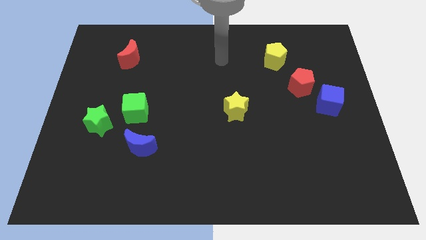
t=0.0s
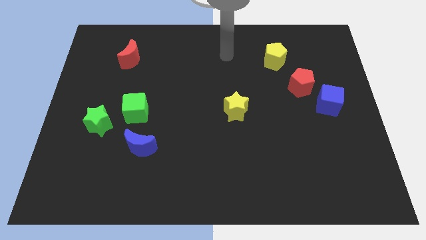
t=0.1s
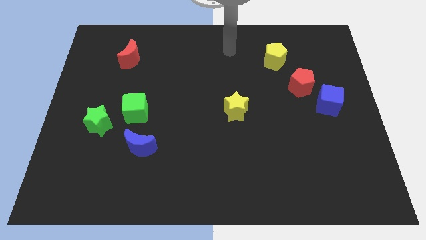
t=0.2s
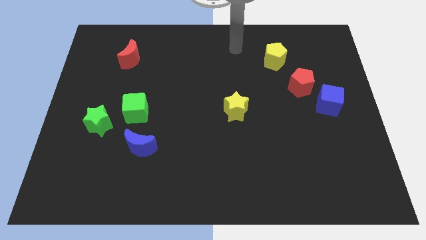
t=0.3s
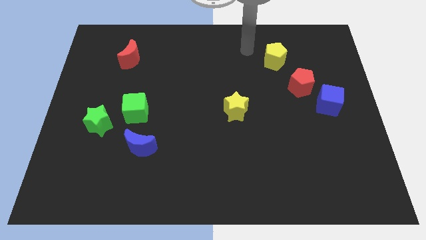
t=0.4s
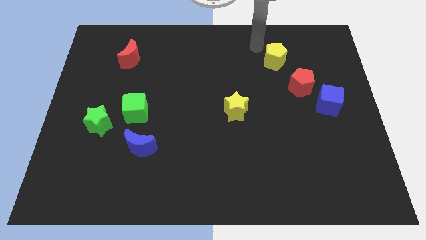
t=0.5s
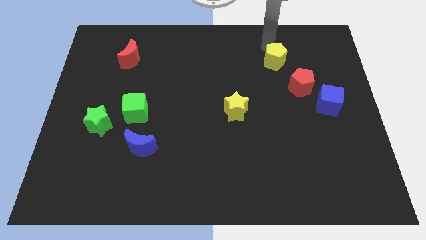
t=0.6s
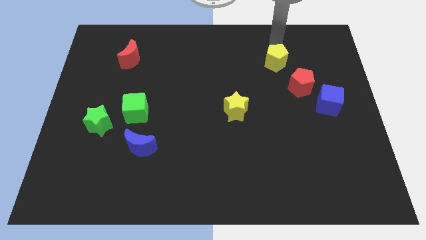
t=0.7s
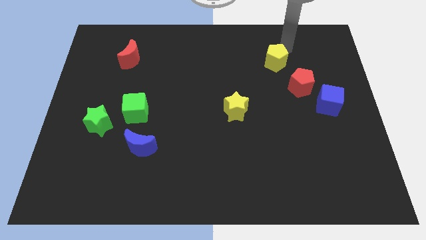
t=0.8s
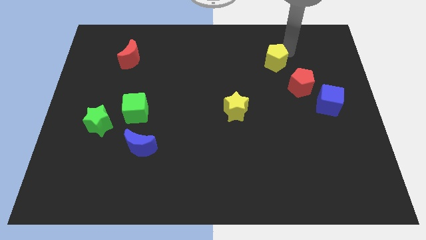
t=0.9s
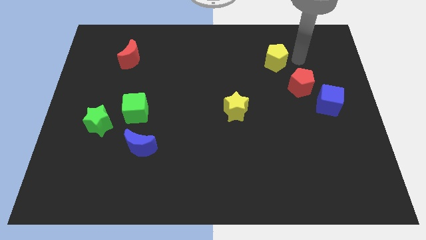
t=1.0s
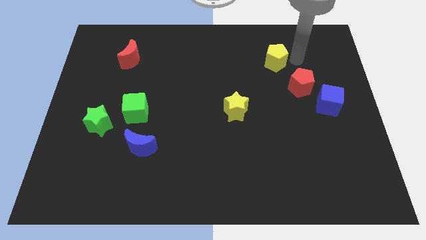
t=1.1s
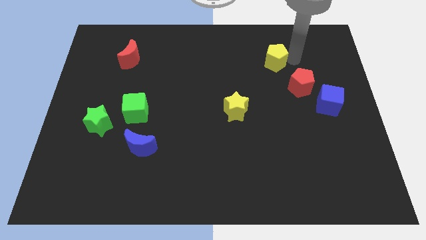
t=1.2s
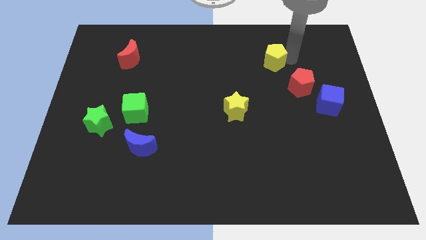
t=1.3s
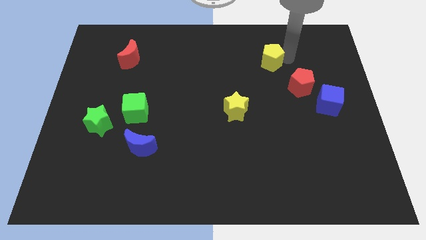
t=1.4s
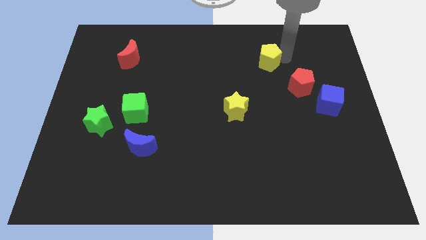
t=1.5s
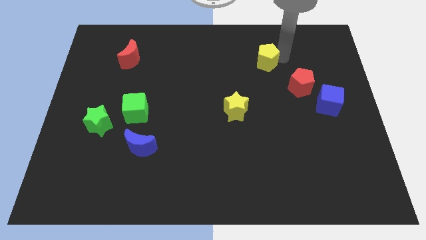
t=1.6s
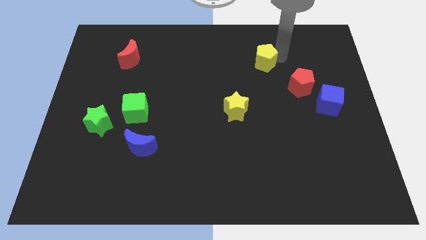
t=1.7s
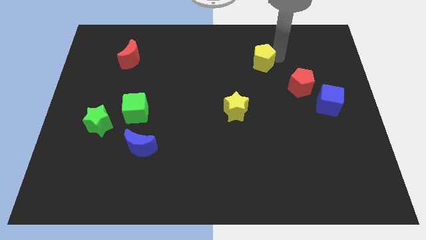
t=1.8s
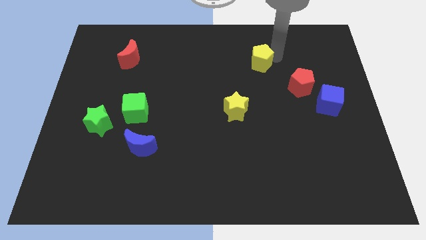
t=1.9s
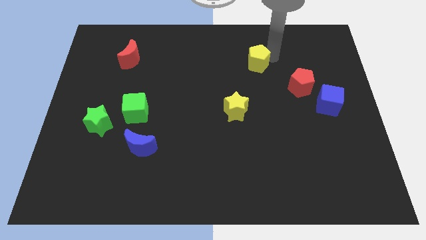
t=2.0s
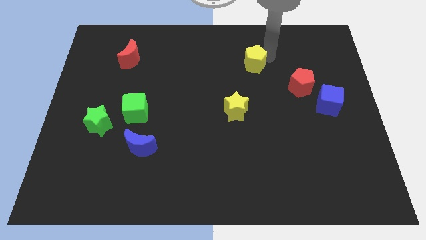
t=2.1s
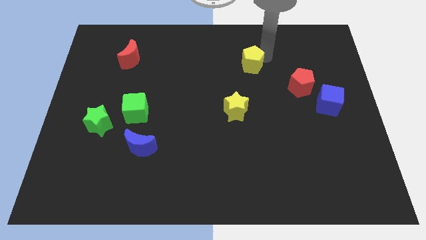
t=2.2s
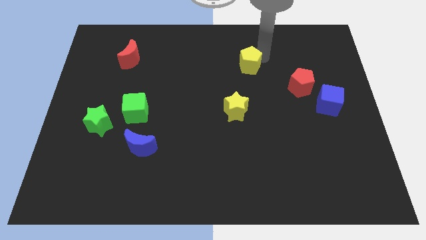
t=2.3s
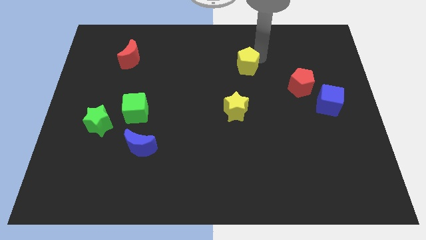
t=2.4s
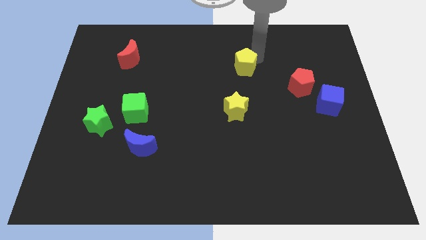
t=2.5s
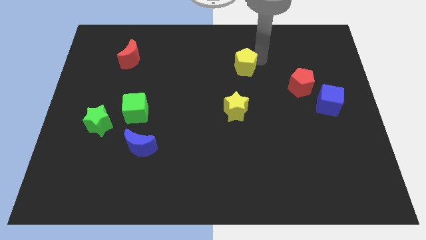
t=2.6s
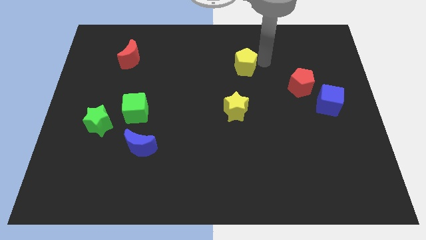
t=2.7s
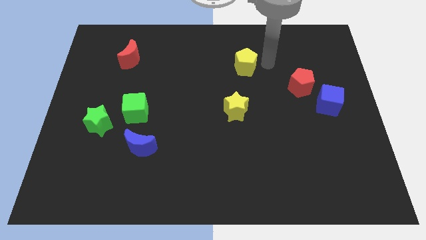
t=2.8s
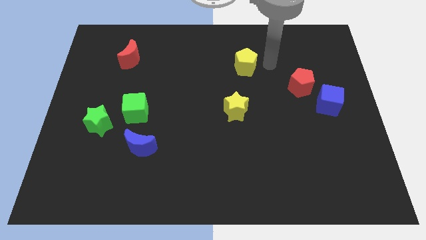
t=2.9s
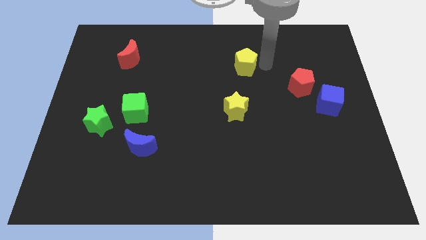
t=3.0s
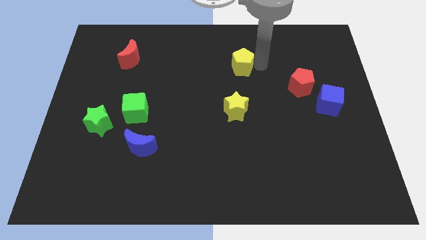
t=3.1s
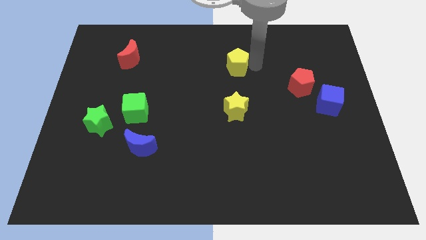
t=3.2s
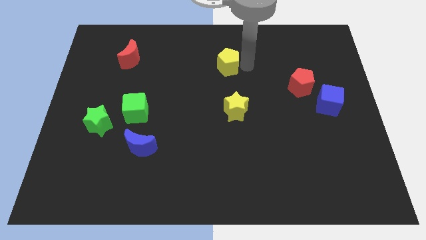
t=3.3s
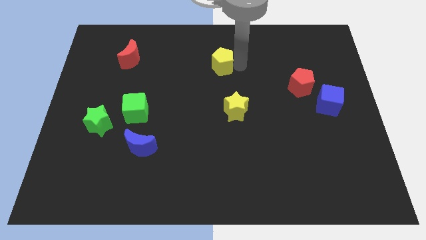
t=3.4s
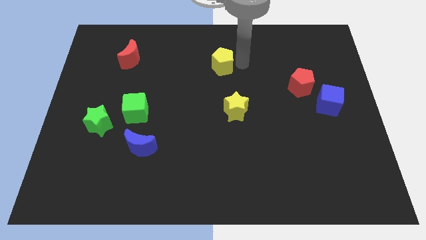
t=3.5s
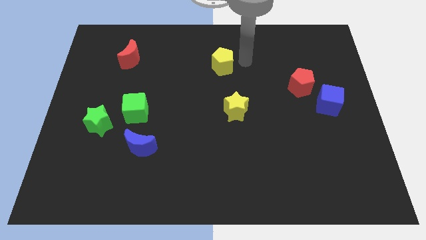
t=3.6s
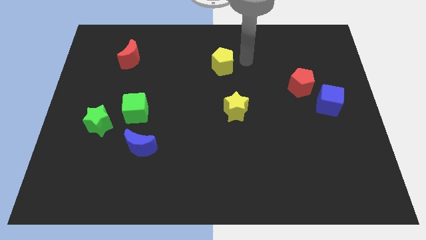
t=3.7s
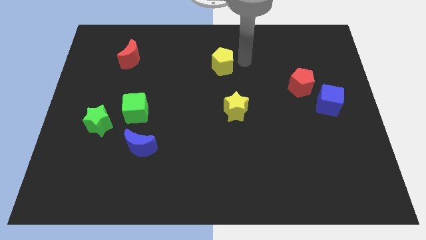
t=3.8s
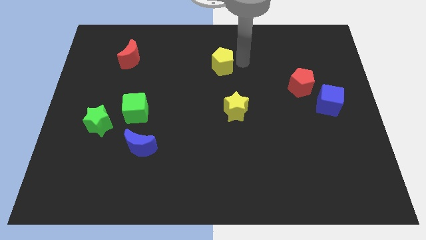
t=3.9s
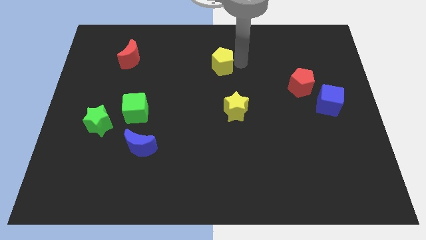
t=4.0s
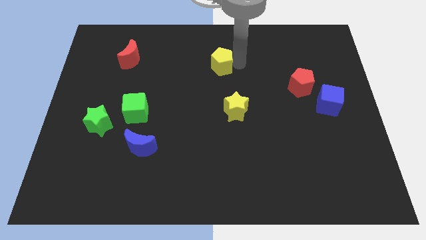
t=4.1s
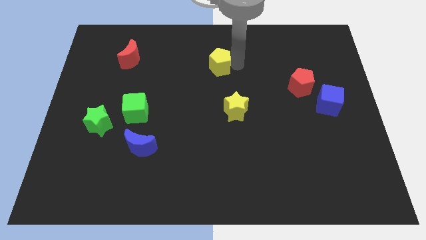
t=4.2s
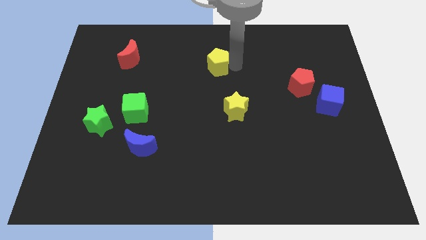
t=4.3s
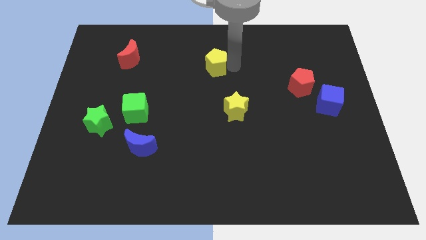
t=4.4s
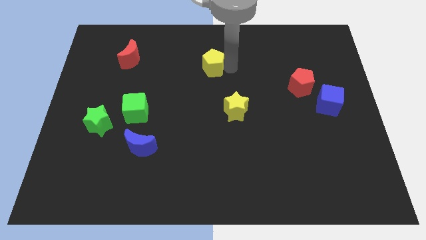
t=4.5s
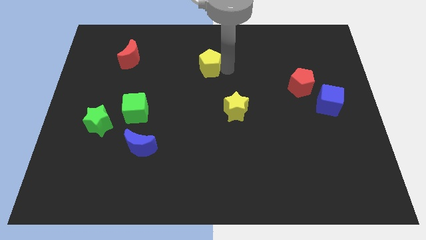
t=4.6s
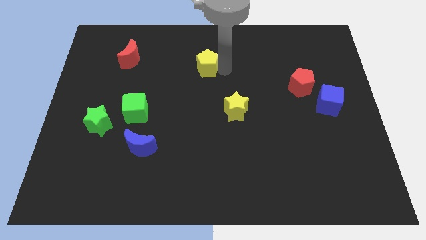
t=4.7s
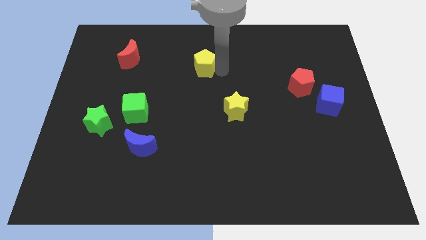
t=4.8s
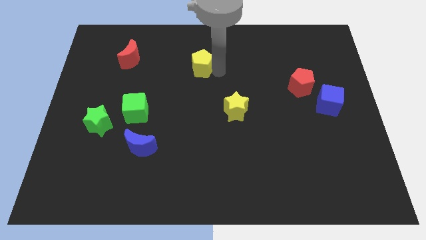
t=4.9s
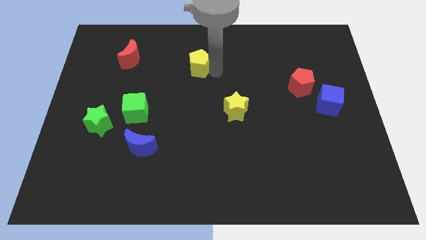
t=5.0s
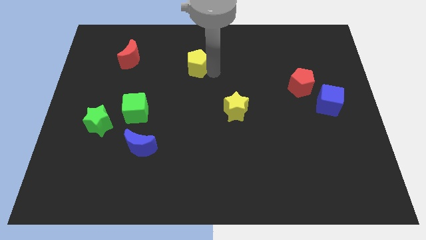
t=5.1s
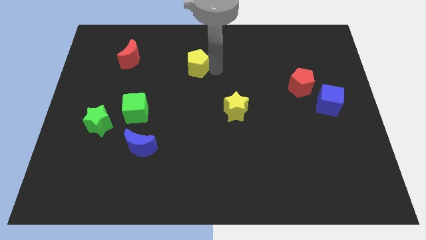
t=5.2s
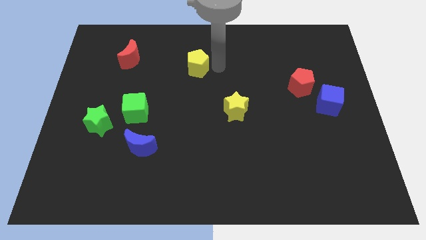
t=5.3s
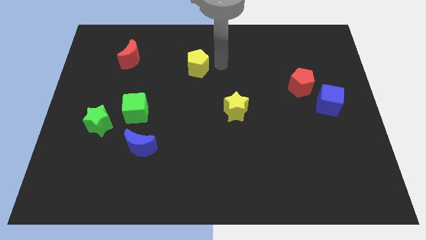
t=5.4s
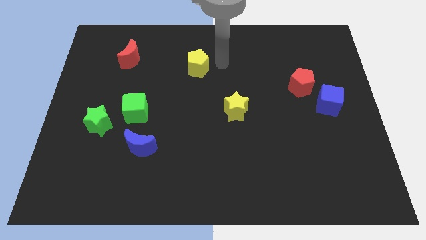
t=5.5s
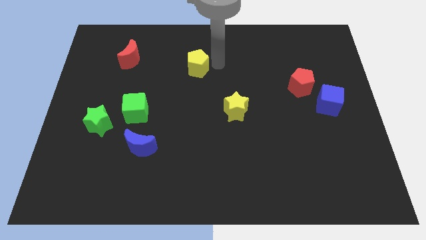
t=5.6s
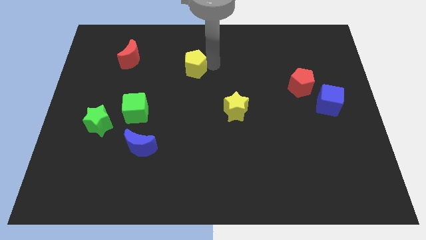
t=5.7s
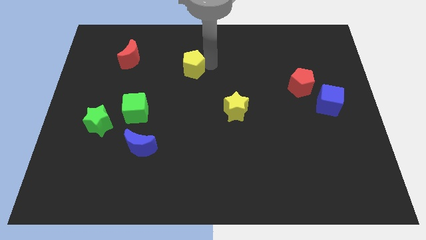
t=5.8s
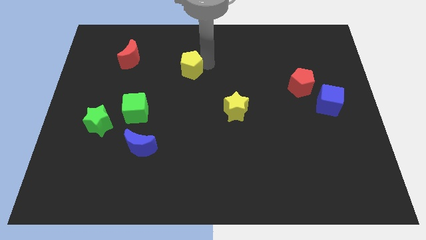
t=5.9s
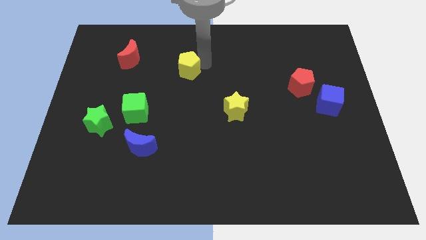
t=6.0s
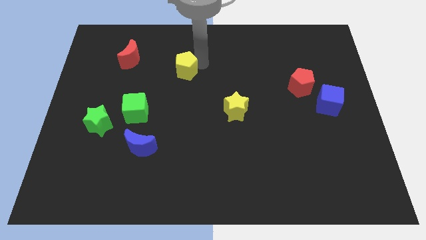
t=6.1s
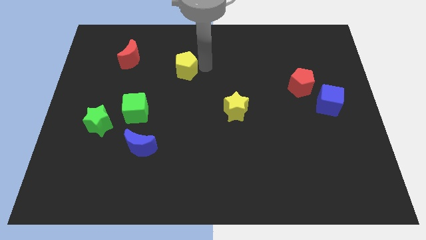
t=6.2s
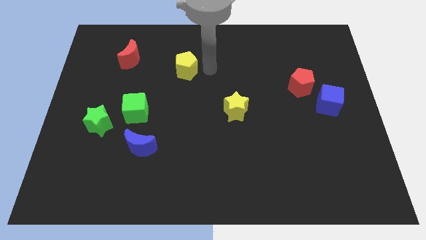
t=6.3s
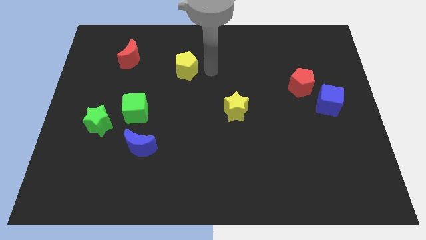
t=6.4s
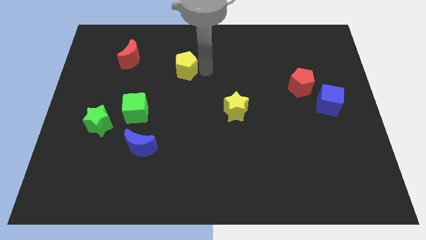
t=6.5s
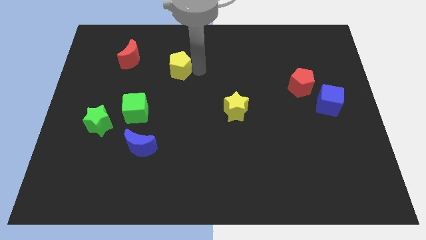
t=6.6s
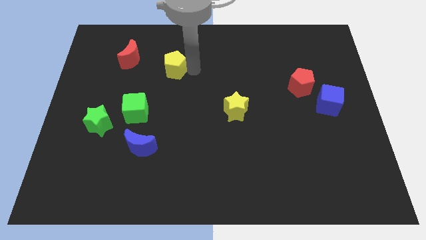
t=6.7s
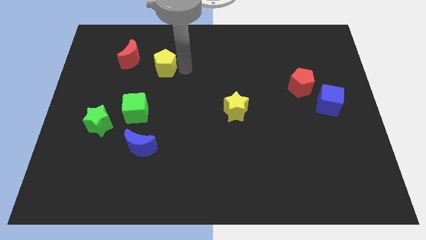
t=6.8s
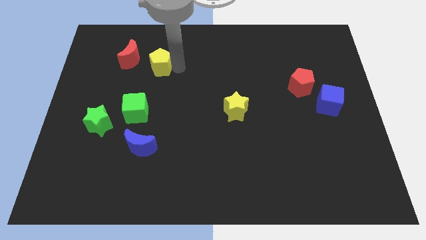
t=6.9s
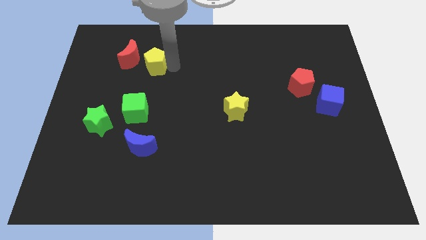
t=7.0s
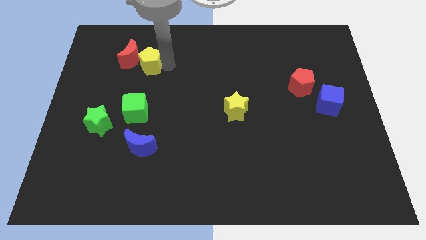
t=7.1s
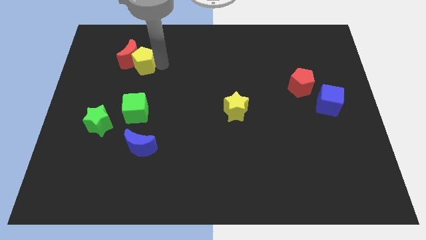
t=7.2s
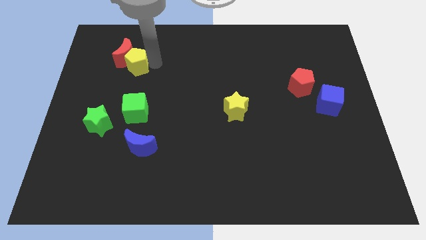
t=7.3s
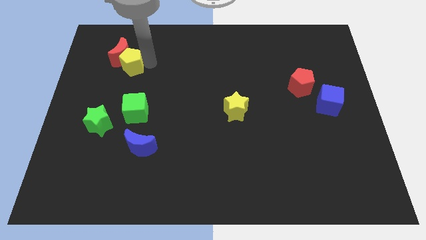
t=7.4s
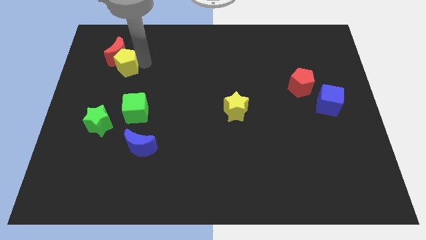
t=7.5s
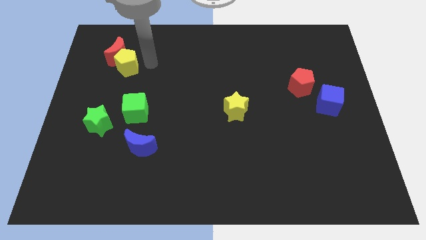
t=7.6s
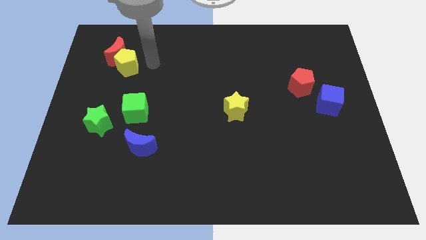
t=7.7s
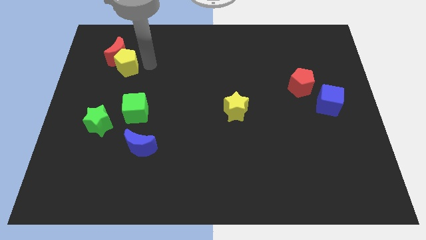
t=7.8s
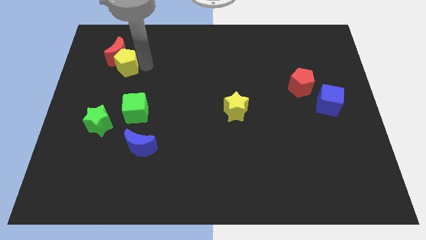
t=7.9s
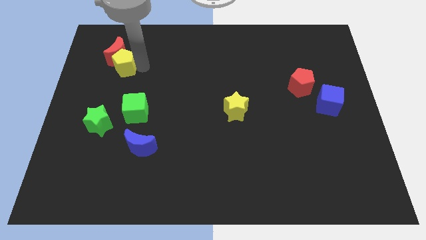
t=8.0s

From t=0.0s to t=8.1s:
put the yellow pentagon to the bottom left side of the red moon

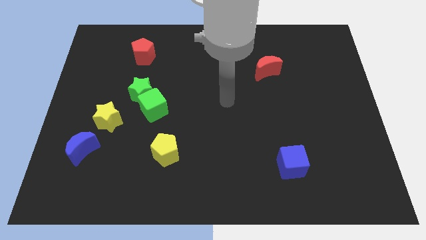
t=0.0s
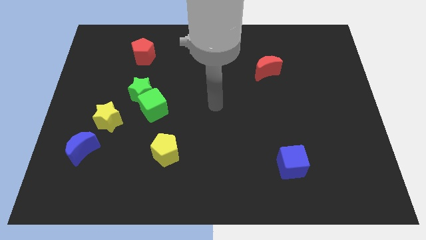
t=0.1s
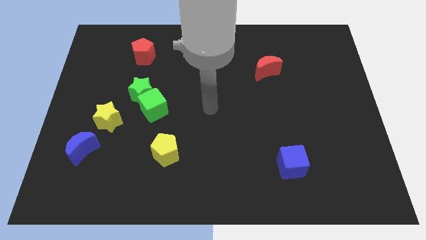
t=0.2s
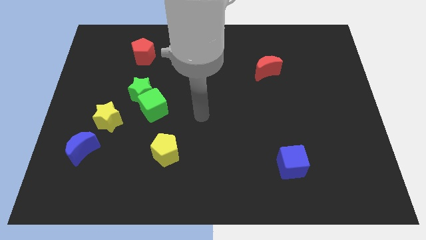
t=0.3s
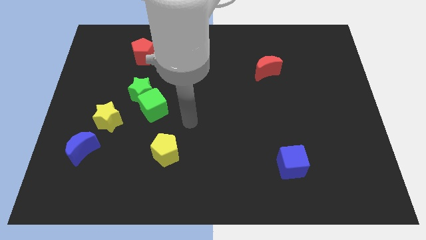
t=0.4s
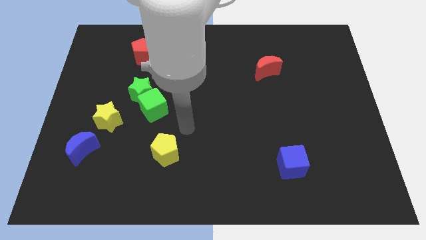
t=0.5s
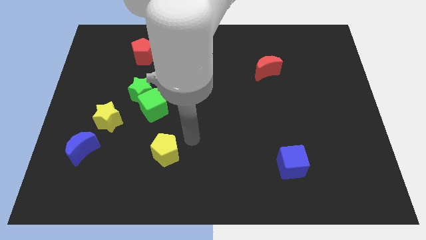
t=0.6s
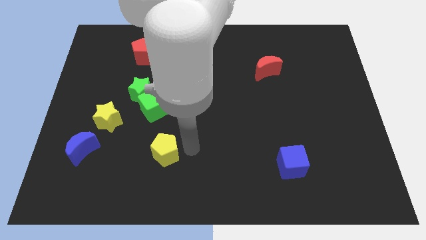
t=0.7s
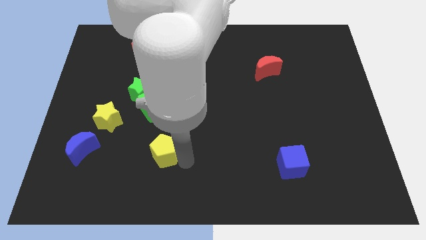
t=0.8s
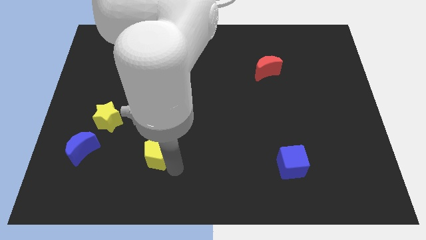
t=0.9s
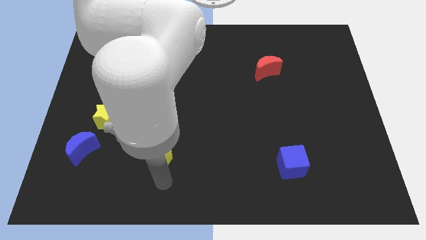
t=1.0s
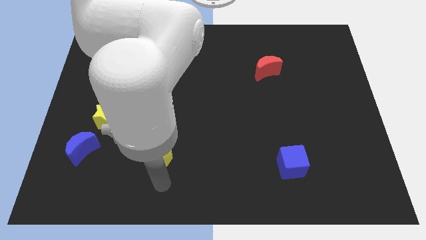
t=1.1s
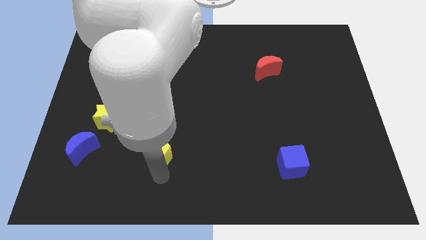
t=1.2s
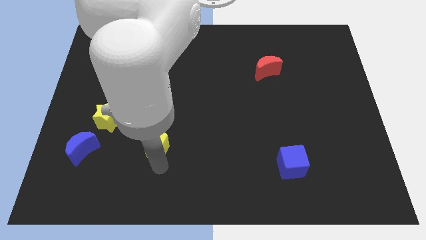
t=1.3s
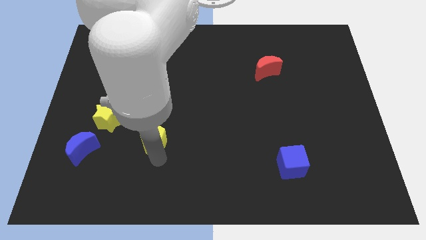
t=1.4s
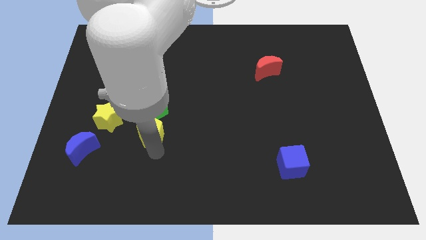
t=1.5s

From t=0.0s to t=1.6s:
slide the yellow pentagon just right of the yellow star
